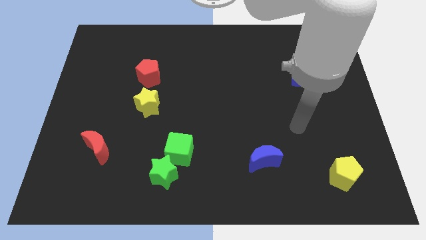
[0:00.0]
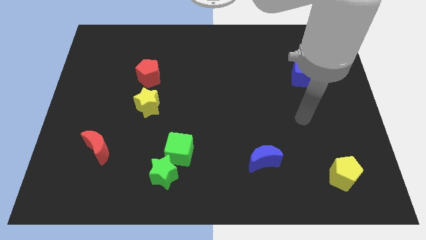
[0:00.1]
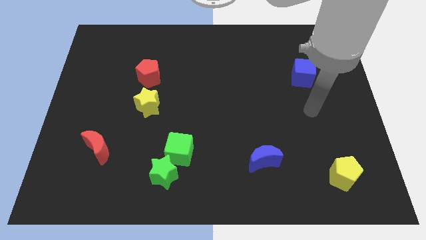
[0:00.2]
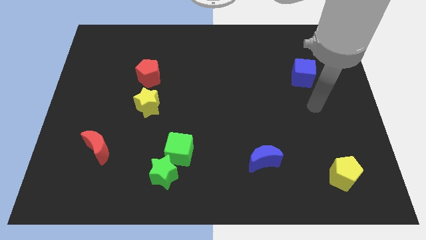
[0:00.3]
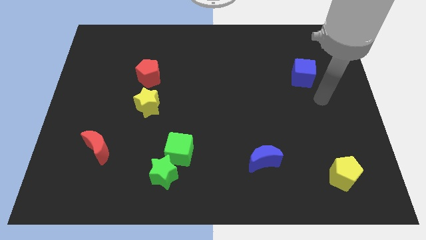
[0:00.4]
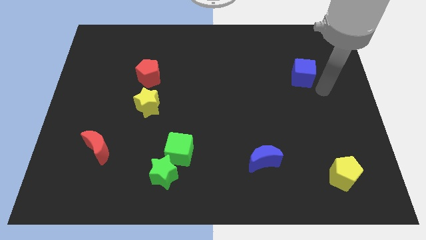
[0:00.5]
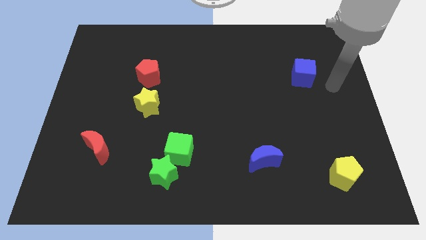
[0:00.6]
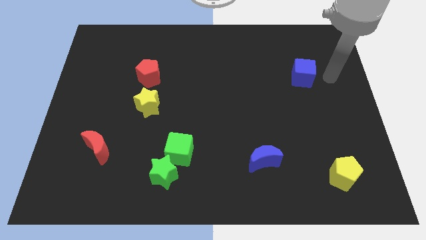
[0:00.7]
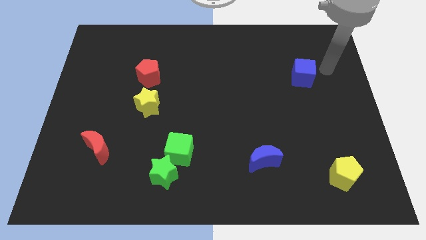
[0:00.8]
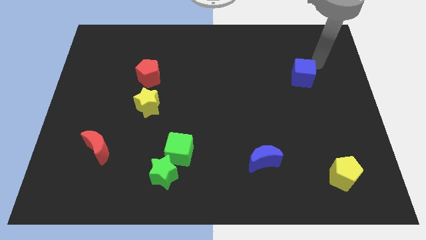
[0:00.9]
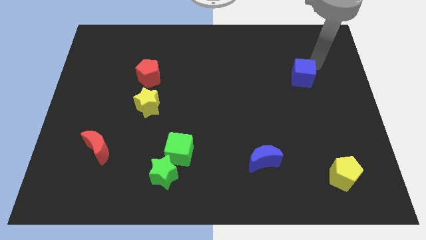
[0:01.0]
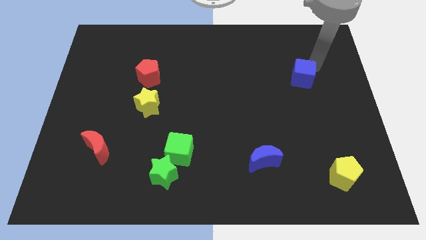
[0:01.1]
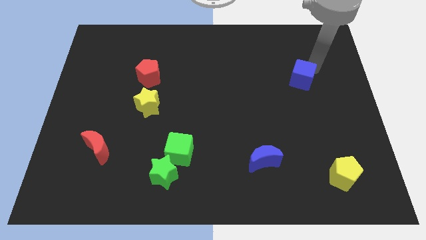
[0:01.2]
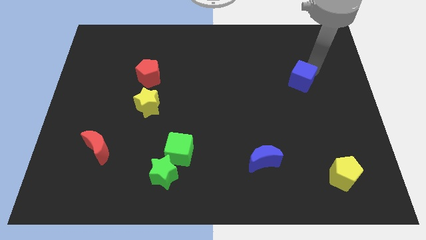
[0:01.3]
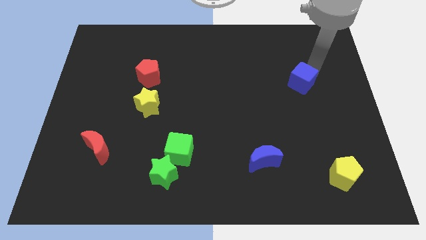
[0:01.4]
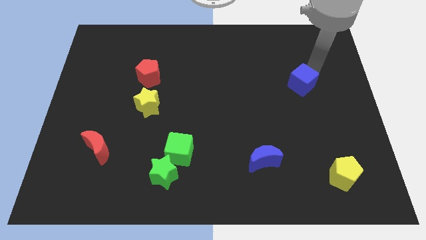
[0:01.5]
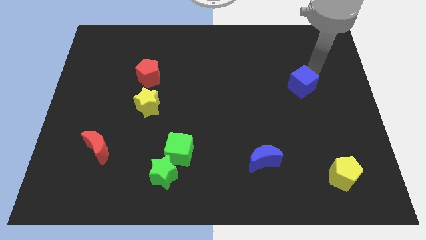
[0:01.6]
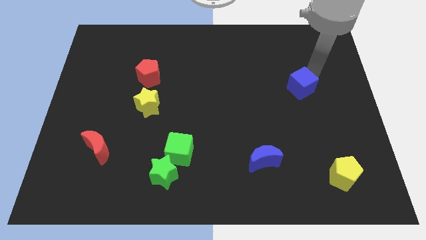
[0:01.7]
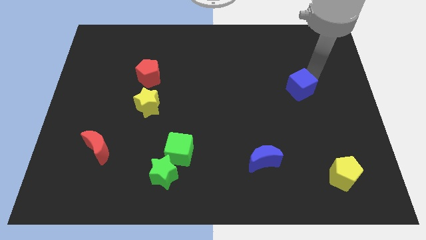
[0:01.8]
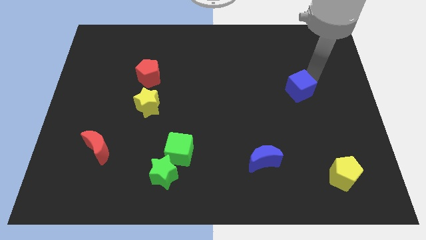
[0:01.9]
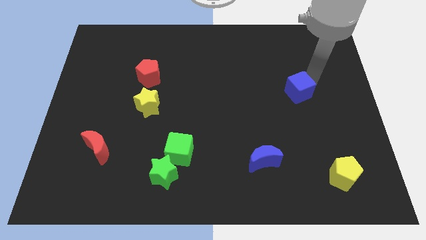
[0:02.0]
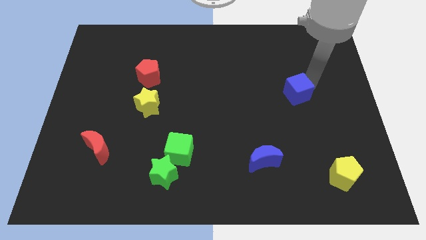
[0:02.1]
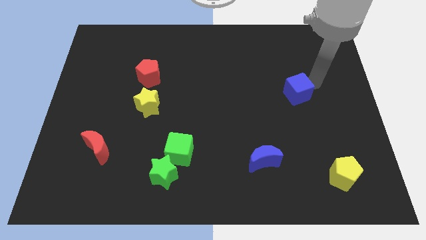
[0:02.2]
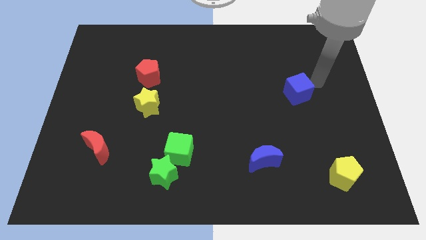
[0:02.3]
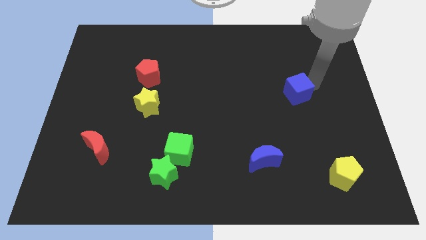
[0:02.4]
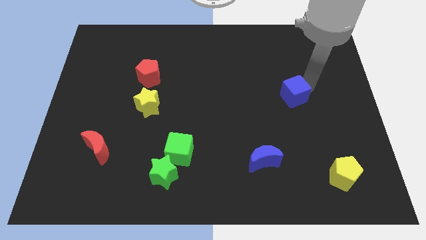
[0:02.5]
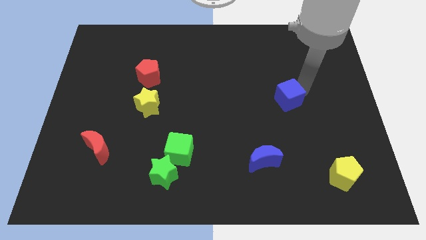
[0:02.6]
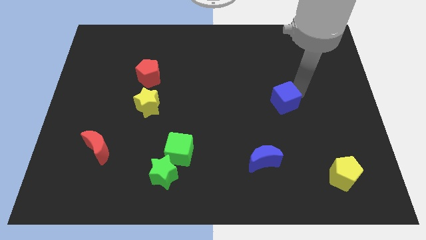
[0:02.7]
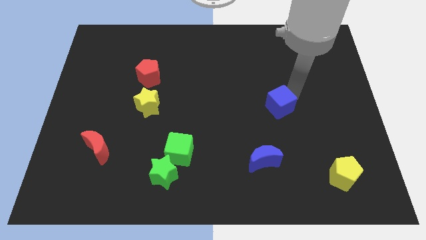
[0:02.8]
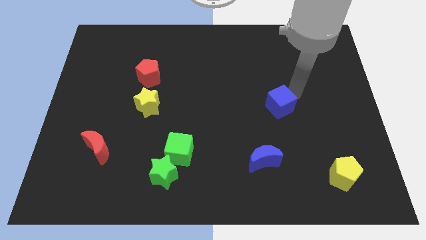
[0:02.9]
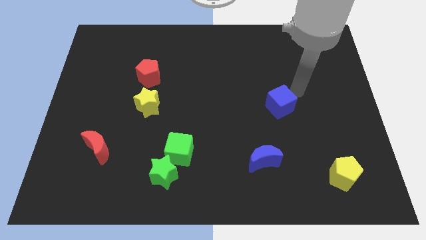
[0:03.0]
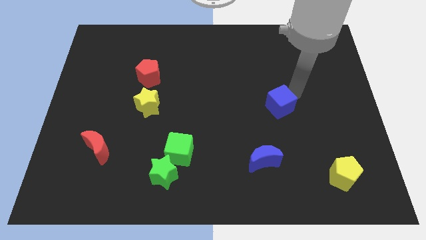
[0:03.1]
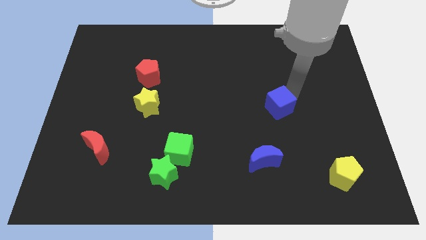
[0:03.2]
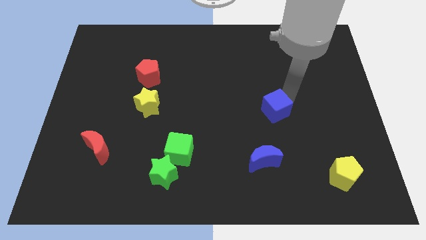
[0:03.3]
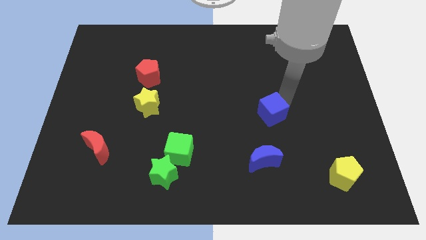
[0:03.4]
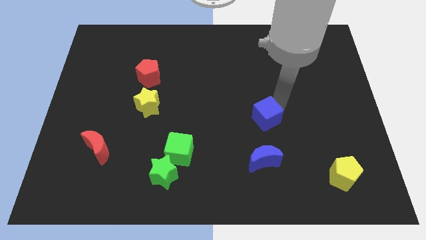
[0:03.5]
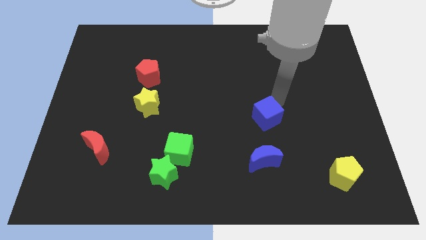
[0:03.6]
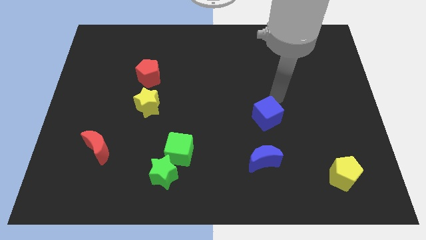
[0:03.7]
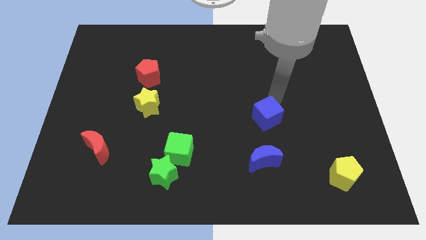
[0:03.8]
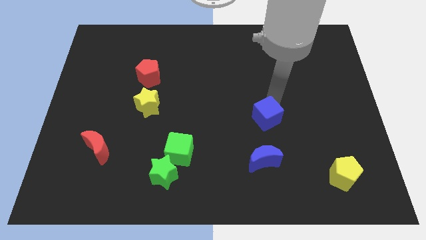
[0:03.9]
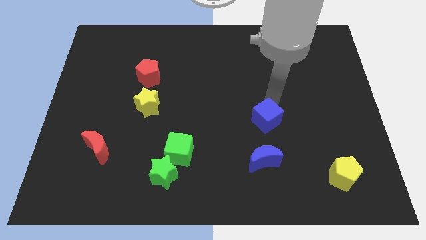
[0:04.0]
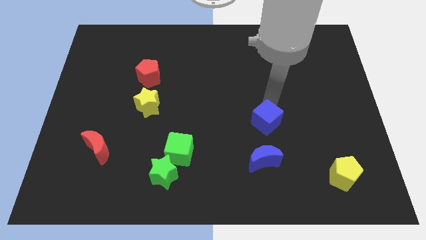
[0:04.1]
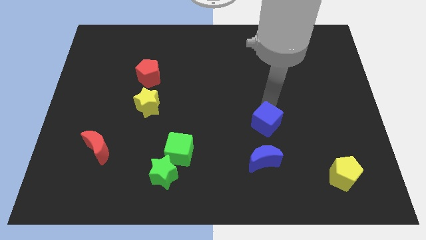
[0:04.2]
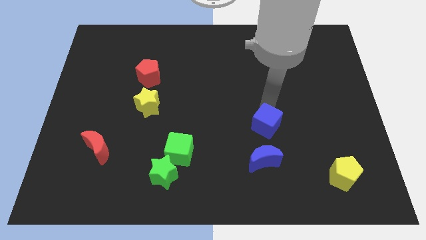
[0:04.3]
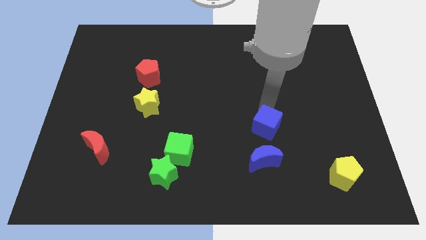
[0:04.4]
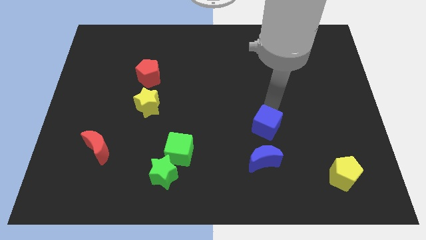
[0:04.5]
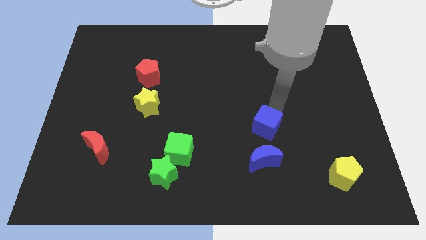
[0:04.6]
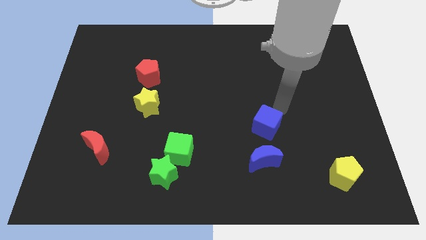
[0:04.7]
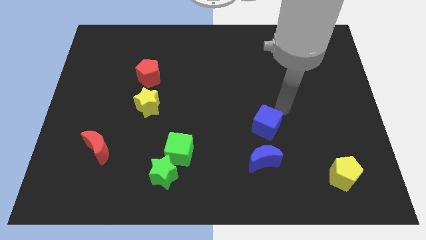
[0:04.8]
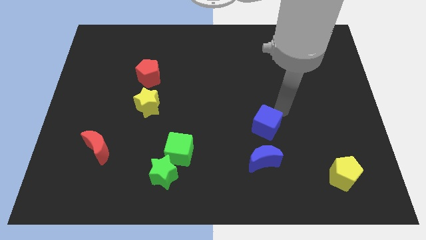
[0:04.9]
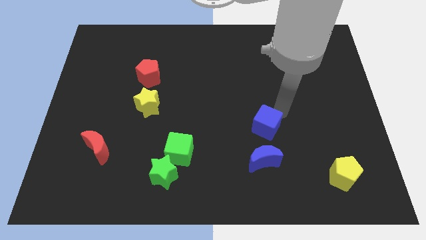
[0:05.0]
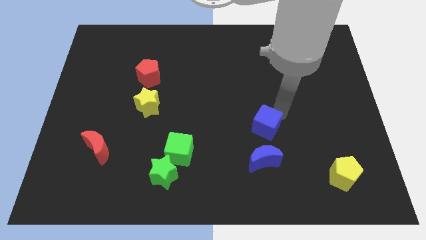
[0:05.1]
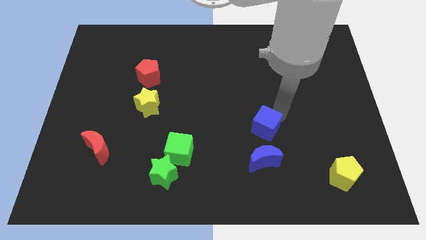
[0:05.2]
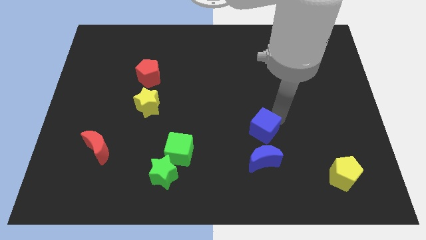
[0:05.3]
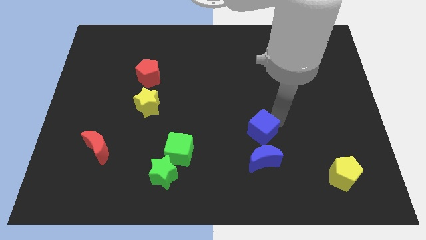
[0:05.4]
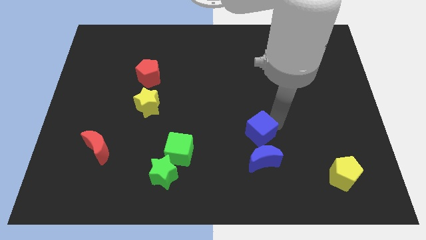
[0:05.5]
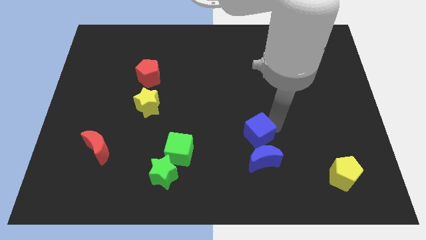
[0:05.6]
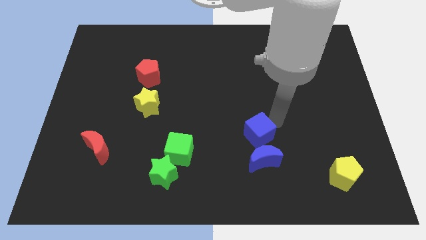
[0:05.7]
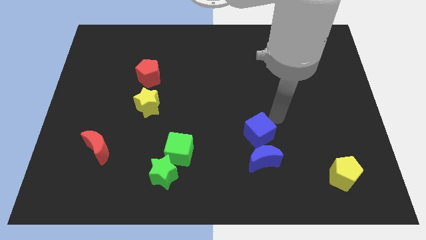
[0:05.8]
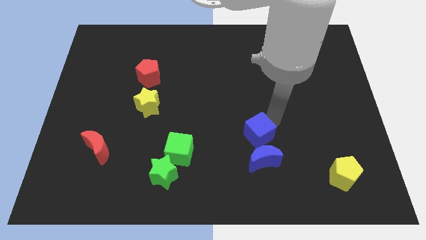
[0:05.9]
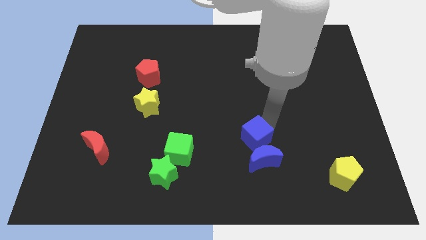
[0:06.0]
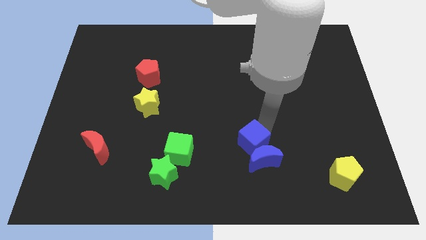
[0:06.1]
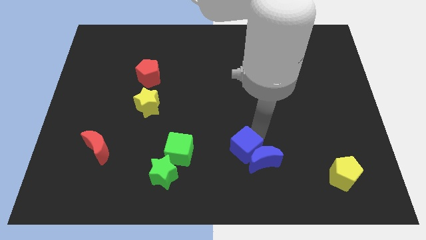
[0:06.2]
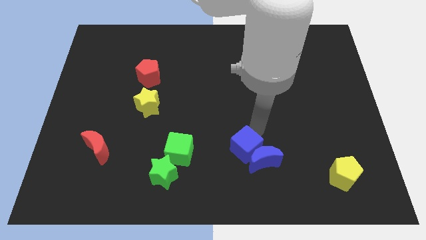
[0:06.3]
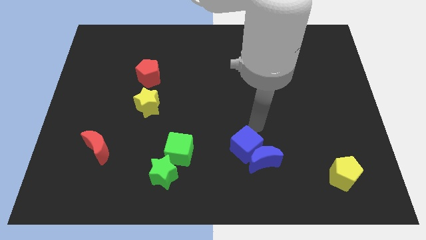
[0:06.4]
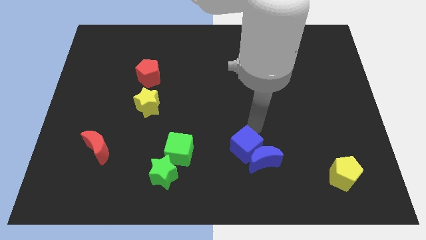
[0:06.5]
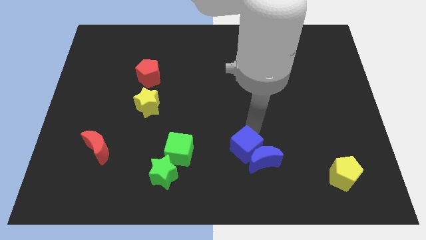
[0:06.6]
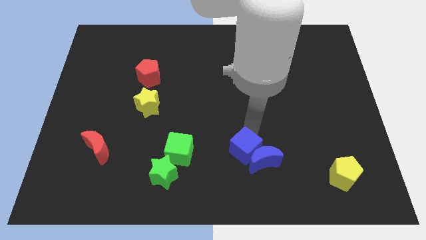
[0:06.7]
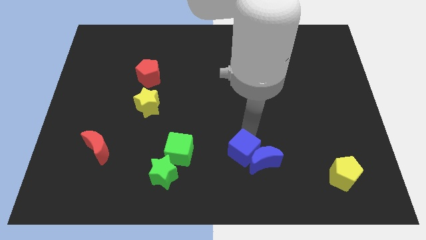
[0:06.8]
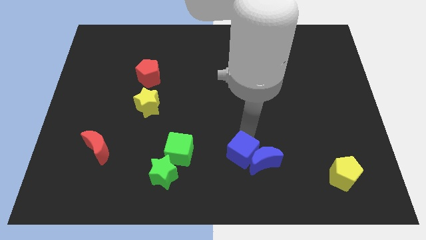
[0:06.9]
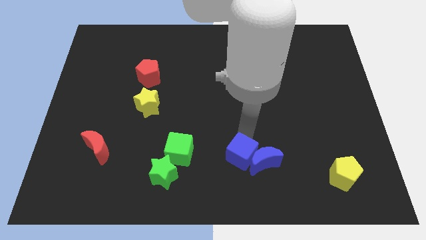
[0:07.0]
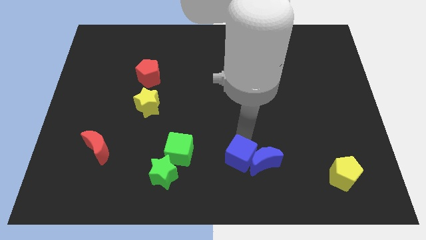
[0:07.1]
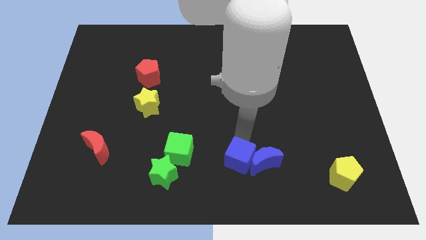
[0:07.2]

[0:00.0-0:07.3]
move the blue cube to the bottom
